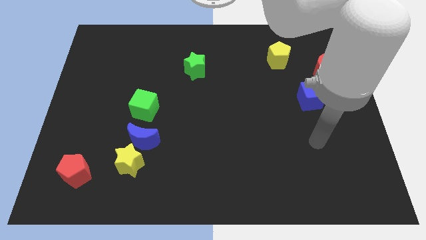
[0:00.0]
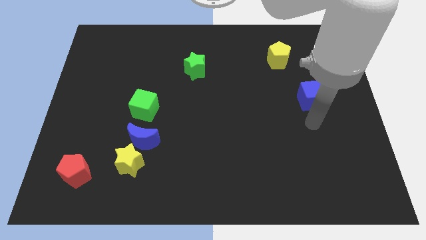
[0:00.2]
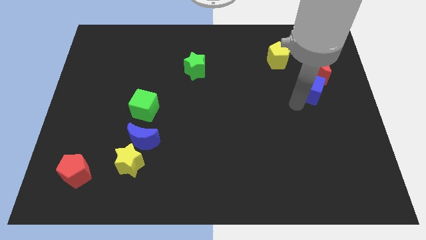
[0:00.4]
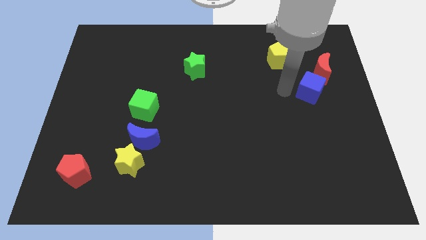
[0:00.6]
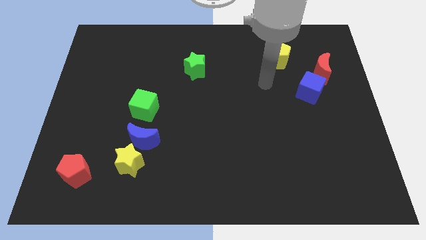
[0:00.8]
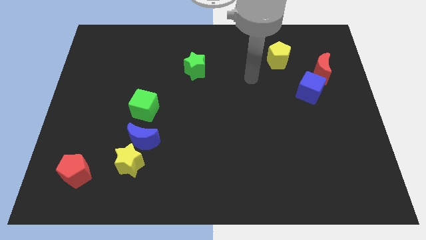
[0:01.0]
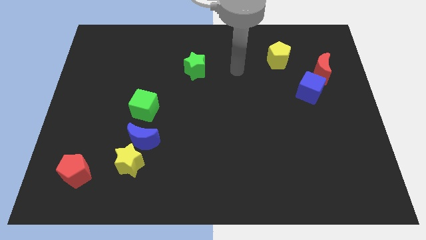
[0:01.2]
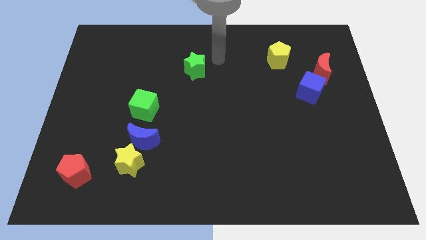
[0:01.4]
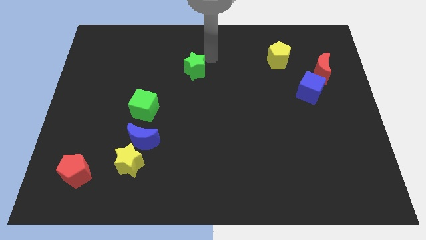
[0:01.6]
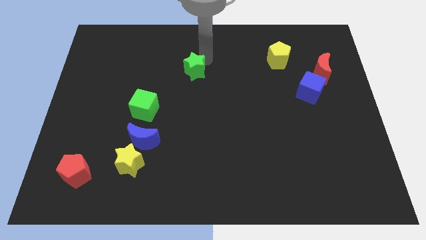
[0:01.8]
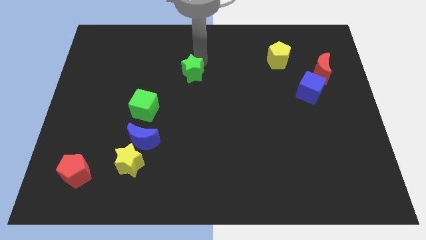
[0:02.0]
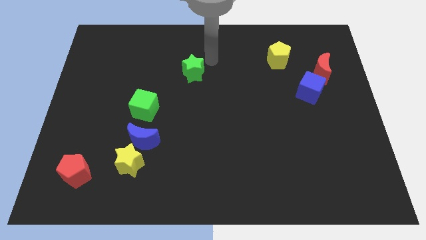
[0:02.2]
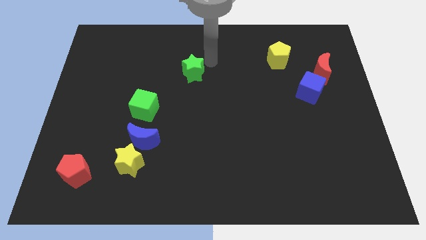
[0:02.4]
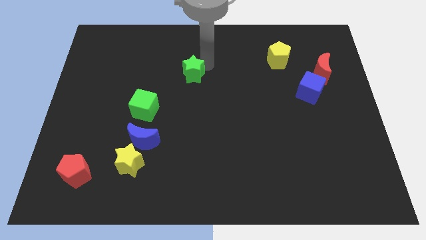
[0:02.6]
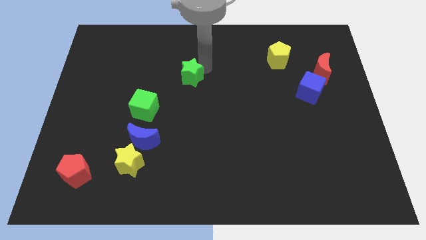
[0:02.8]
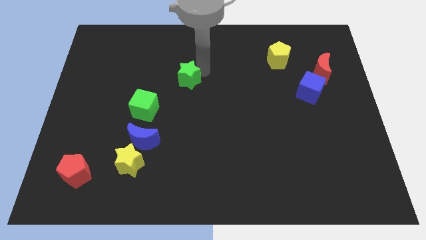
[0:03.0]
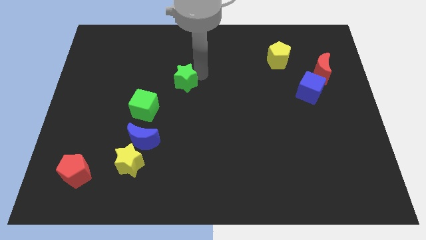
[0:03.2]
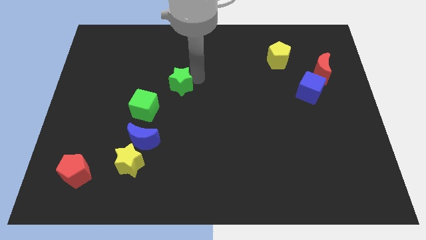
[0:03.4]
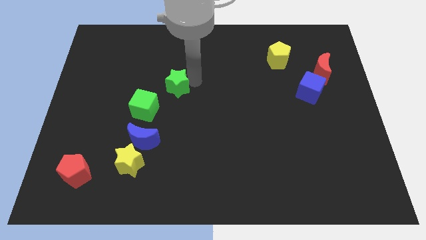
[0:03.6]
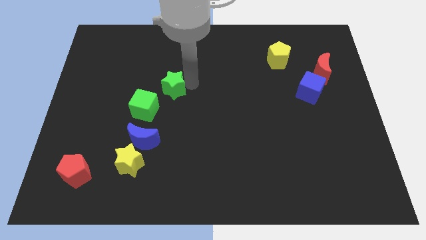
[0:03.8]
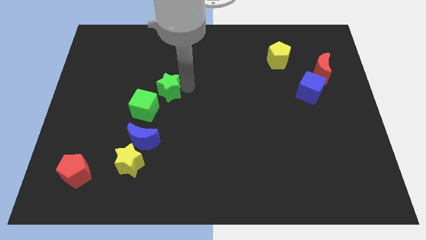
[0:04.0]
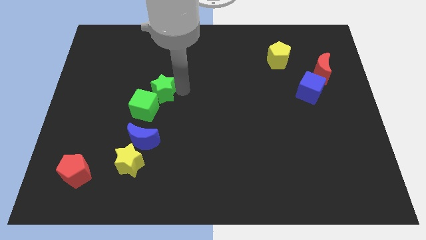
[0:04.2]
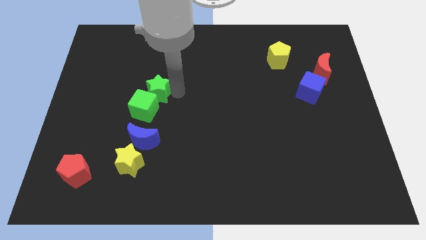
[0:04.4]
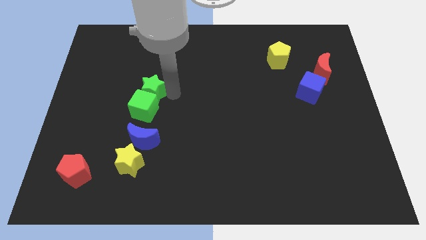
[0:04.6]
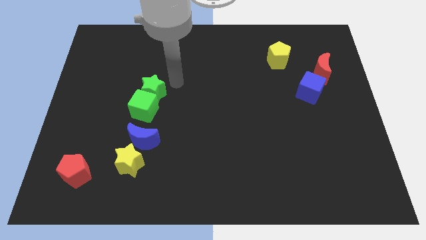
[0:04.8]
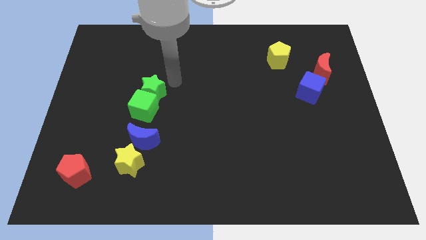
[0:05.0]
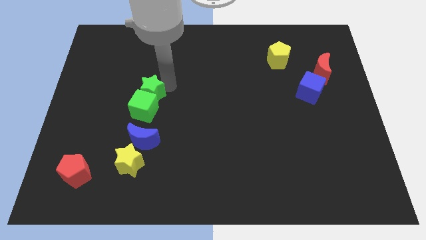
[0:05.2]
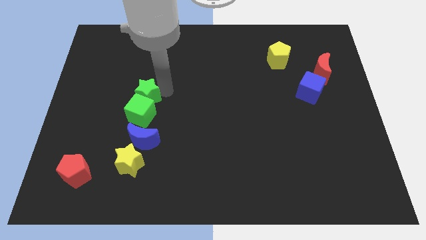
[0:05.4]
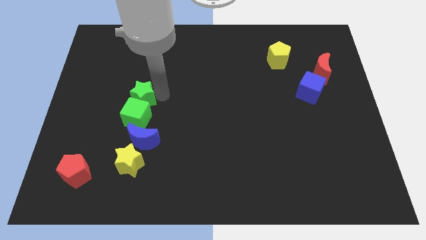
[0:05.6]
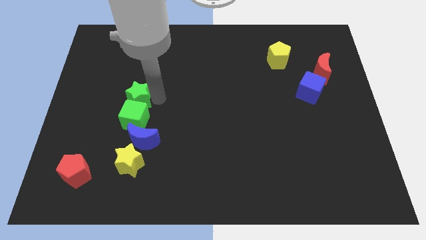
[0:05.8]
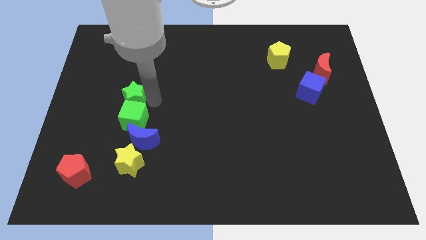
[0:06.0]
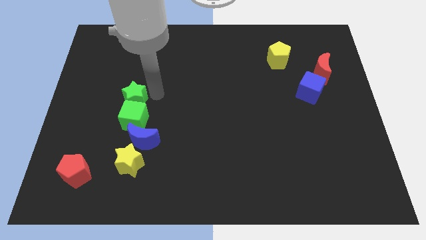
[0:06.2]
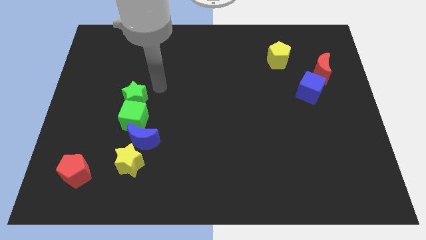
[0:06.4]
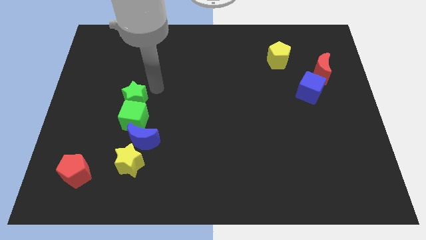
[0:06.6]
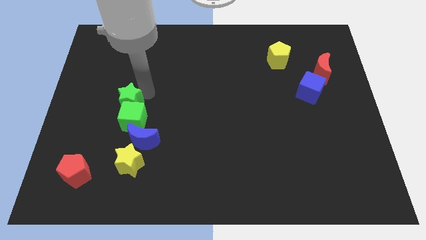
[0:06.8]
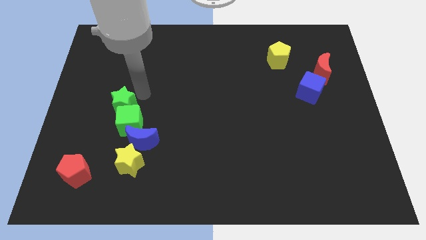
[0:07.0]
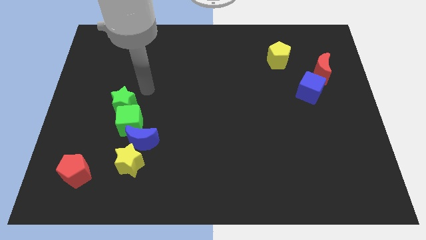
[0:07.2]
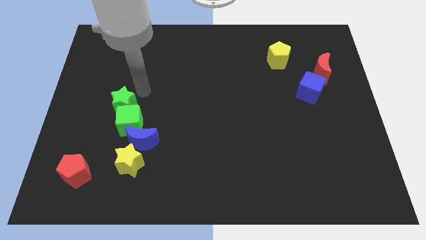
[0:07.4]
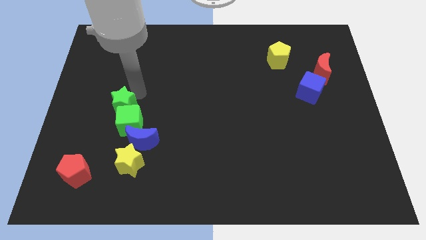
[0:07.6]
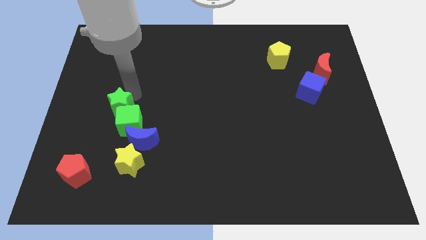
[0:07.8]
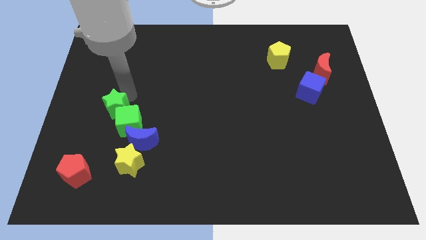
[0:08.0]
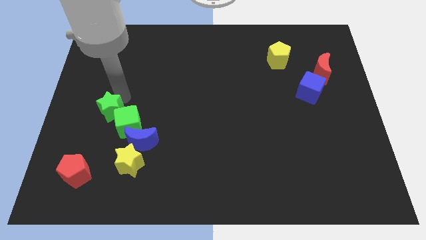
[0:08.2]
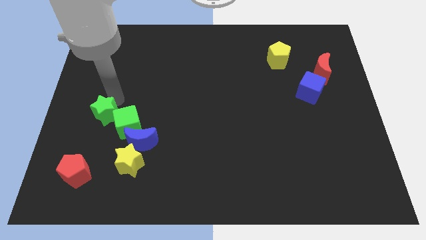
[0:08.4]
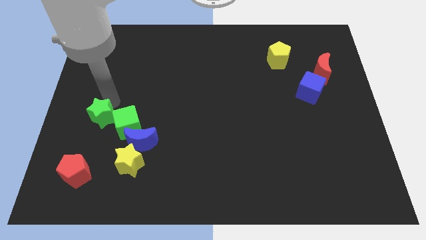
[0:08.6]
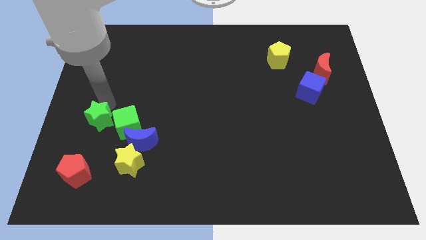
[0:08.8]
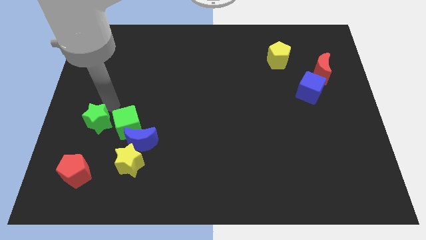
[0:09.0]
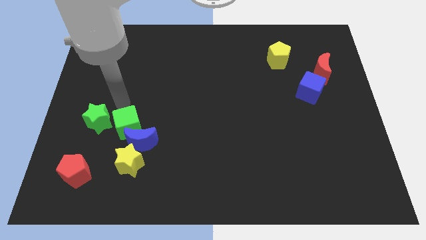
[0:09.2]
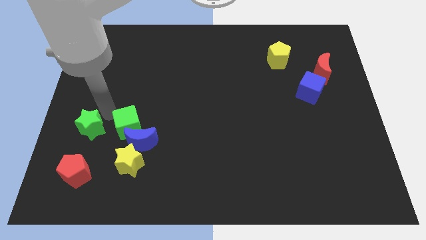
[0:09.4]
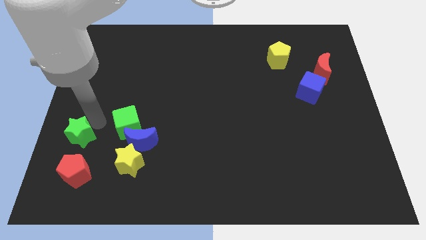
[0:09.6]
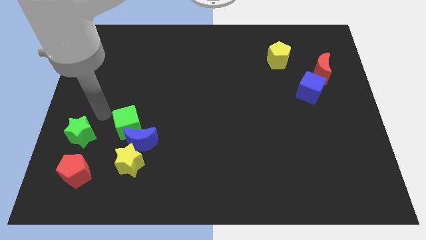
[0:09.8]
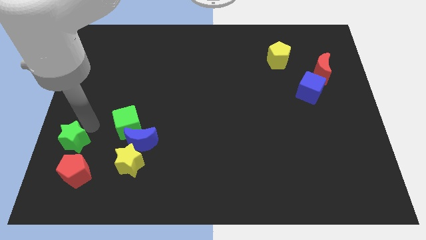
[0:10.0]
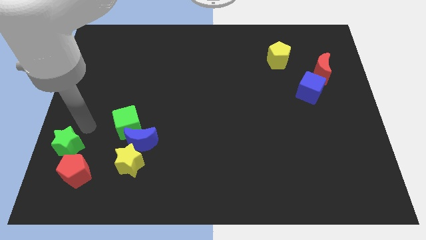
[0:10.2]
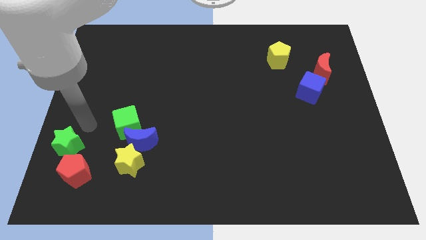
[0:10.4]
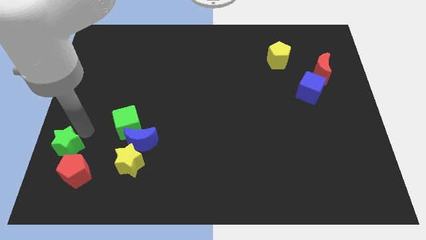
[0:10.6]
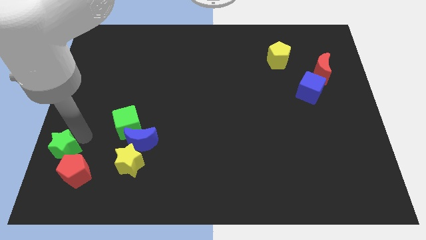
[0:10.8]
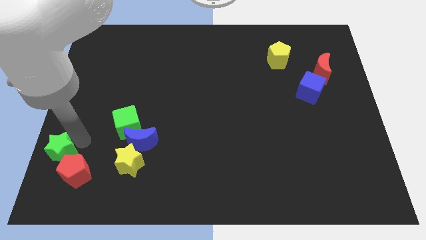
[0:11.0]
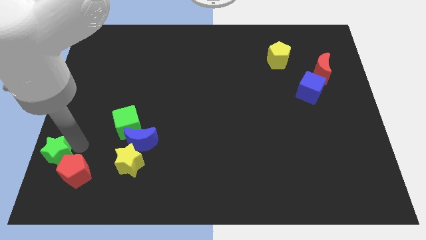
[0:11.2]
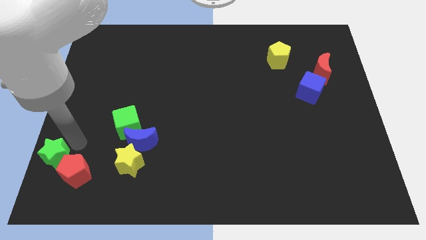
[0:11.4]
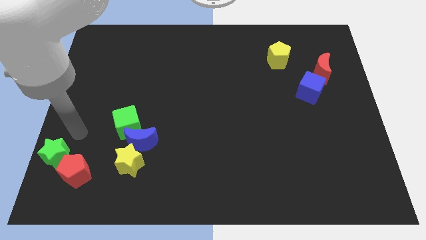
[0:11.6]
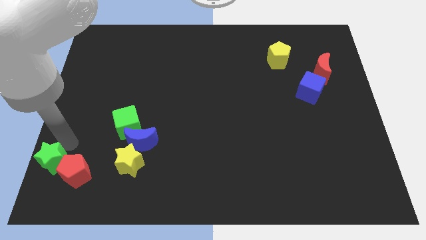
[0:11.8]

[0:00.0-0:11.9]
put the green star to the bottom left corner

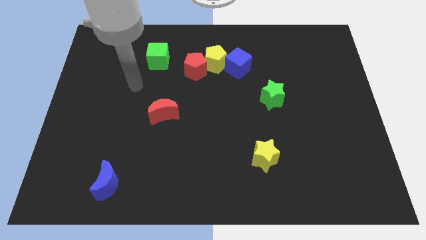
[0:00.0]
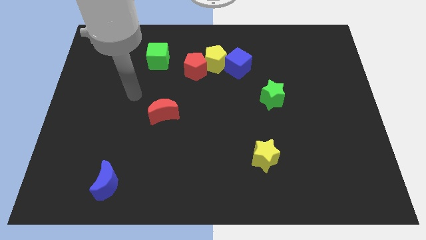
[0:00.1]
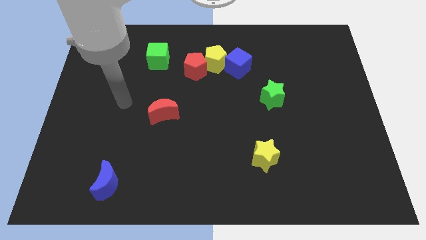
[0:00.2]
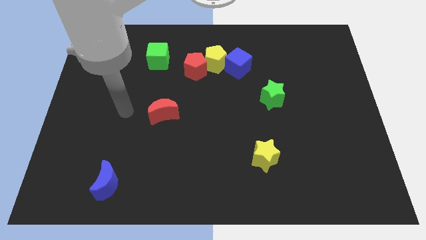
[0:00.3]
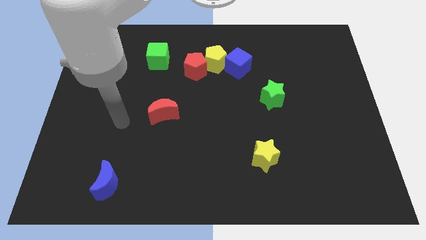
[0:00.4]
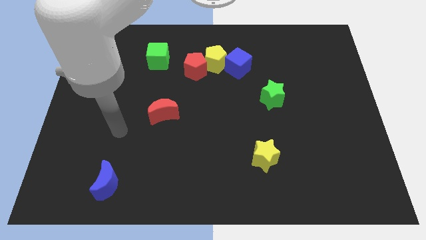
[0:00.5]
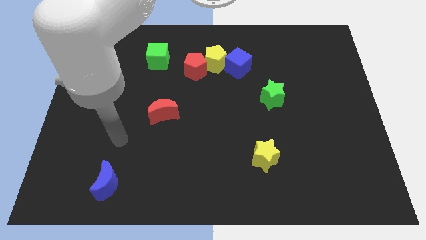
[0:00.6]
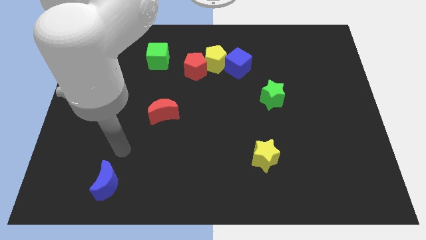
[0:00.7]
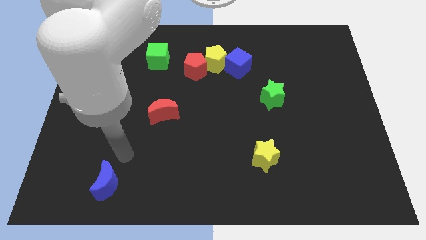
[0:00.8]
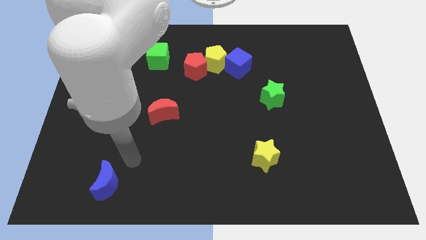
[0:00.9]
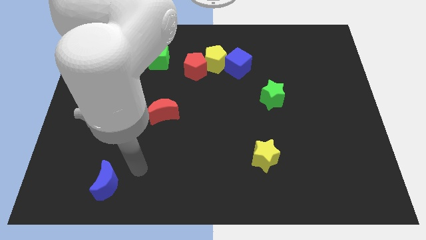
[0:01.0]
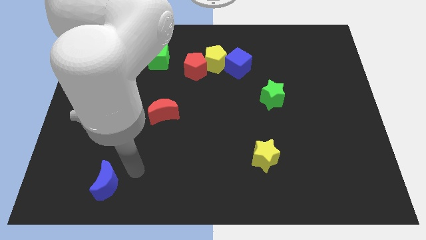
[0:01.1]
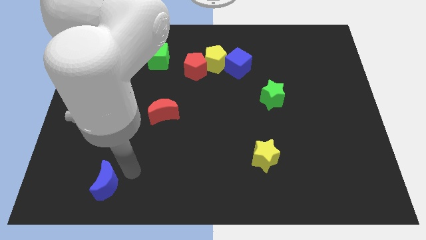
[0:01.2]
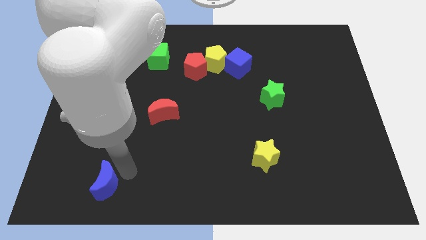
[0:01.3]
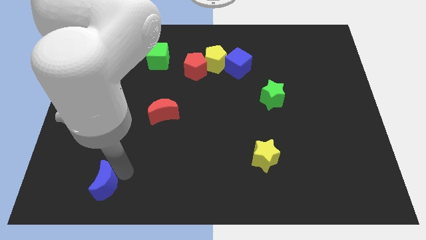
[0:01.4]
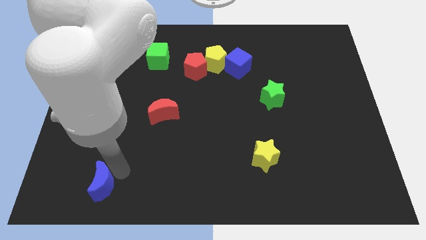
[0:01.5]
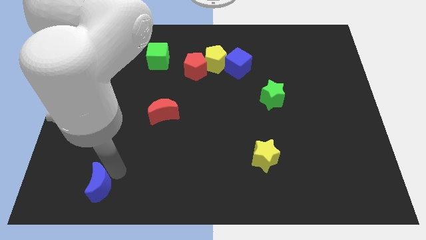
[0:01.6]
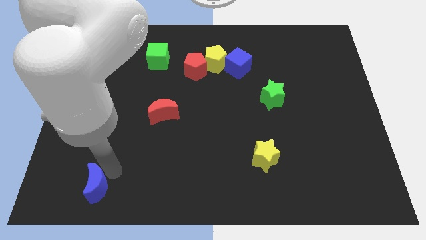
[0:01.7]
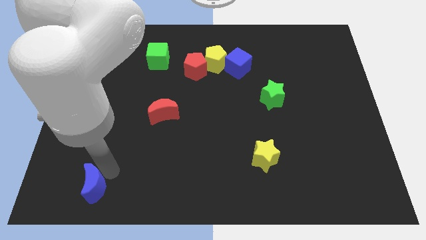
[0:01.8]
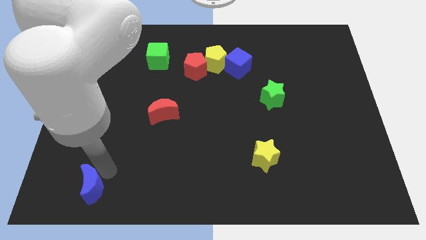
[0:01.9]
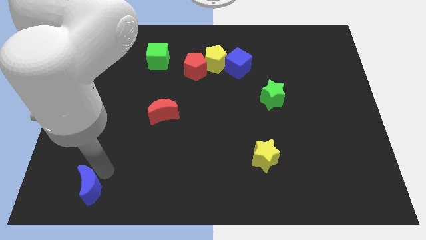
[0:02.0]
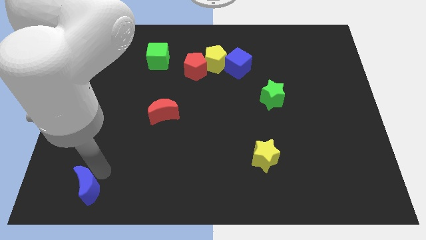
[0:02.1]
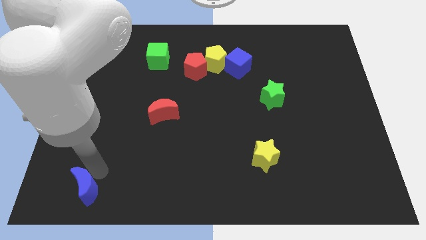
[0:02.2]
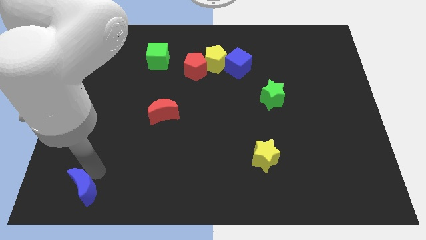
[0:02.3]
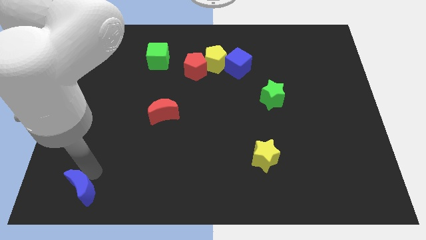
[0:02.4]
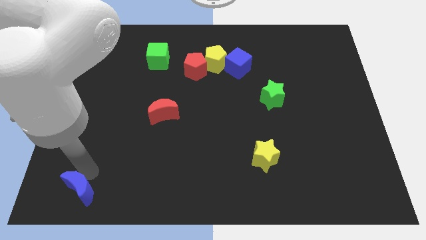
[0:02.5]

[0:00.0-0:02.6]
put the blue moon to the bottom left of the board

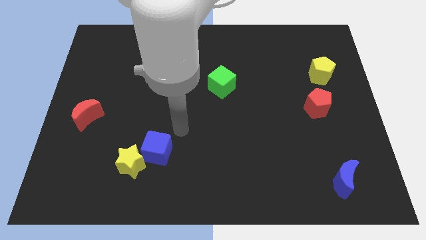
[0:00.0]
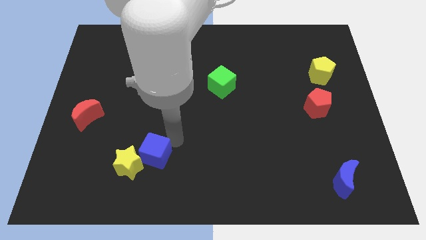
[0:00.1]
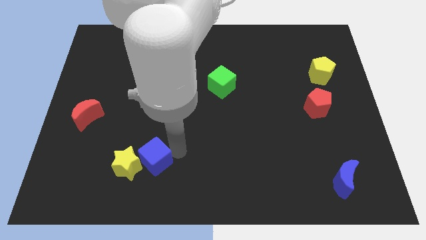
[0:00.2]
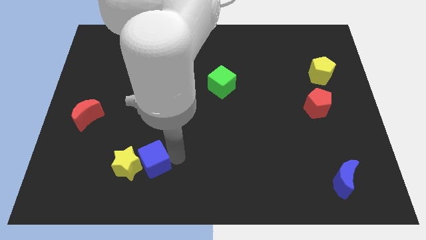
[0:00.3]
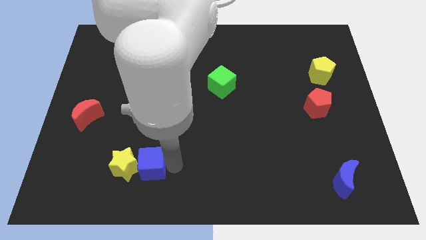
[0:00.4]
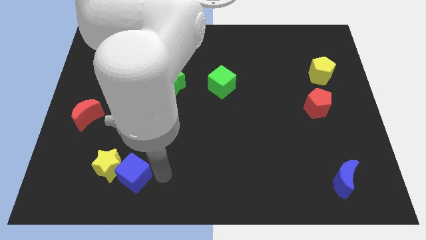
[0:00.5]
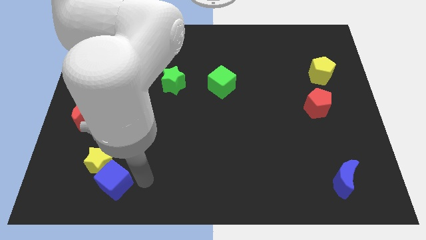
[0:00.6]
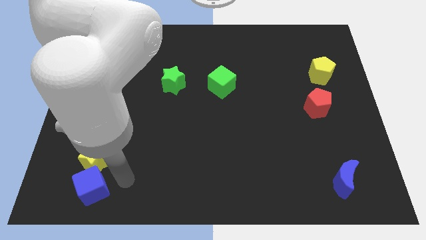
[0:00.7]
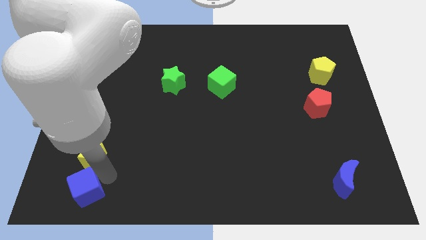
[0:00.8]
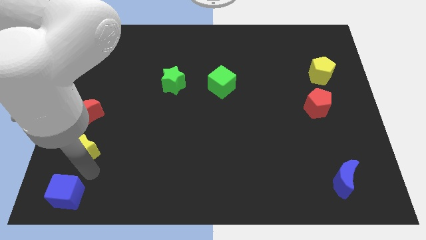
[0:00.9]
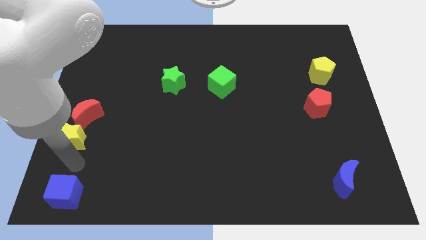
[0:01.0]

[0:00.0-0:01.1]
put the yellow star to the center left
